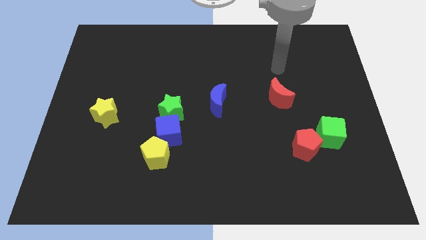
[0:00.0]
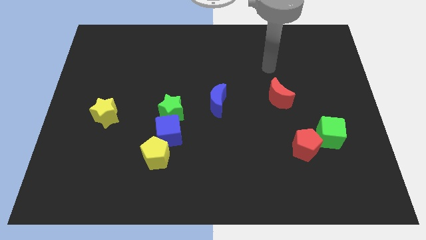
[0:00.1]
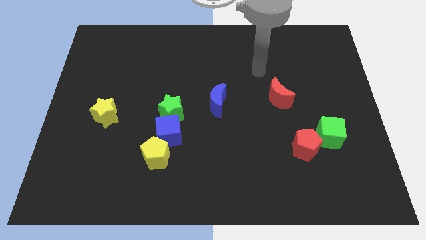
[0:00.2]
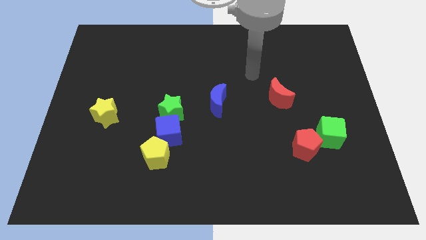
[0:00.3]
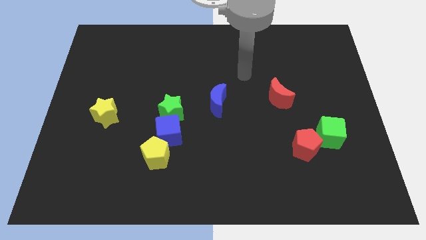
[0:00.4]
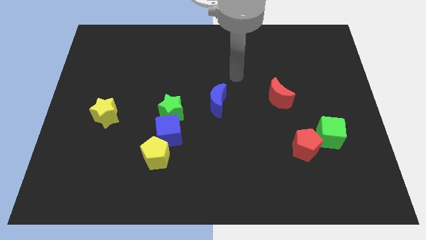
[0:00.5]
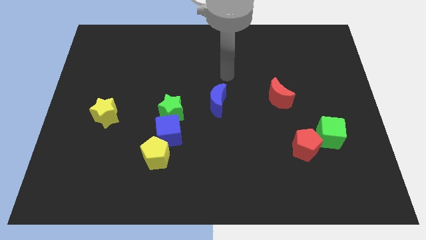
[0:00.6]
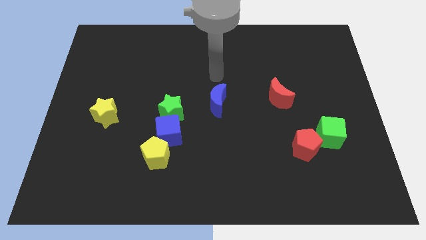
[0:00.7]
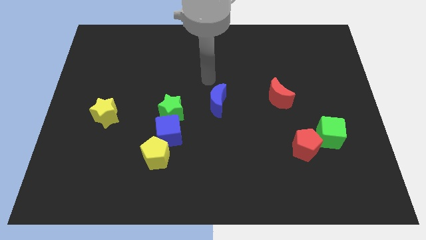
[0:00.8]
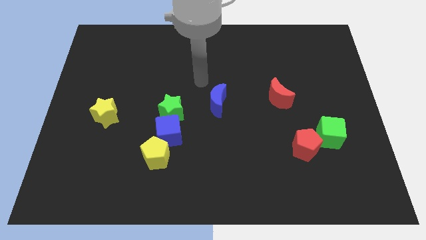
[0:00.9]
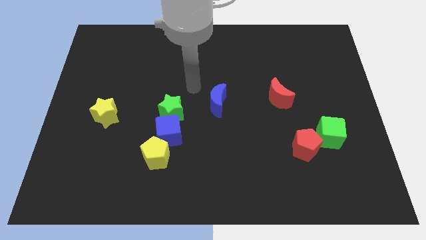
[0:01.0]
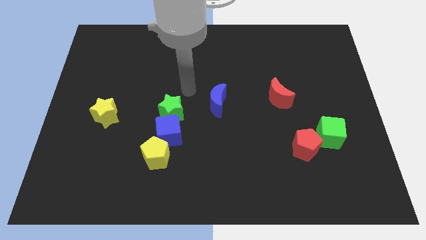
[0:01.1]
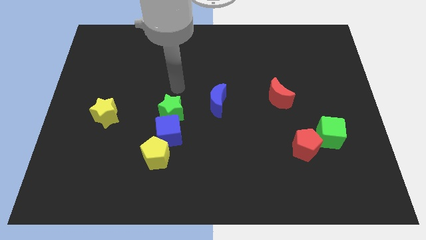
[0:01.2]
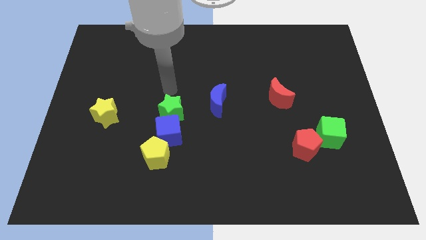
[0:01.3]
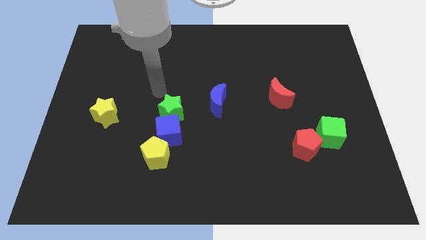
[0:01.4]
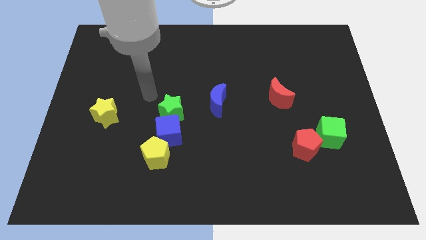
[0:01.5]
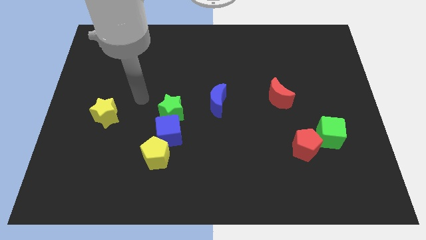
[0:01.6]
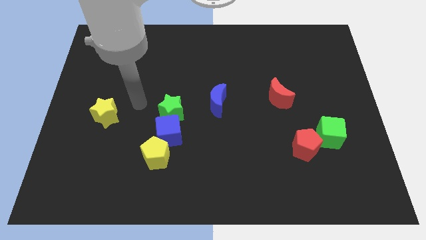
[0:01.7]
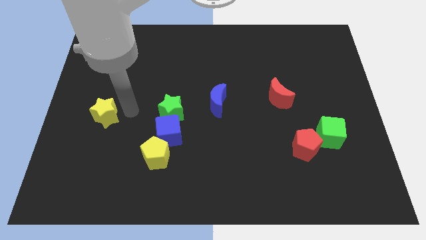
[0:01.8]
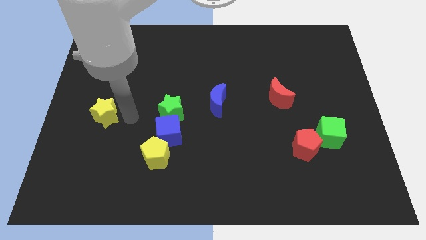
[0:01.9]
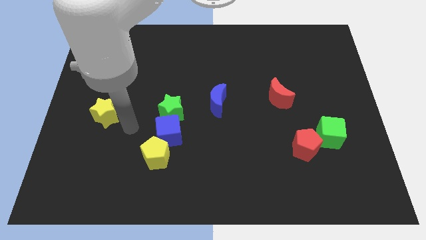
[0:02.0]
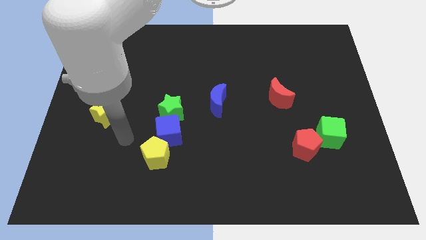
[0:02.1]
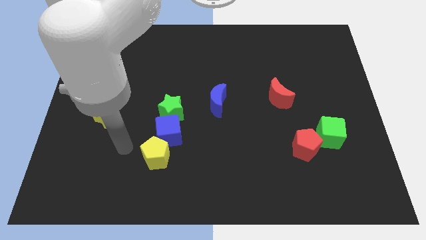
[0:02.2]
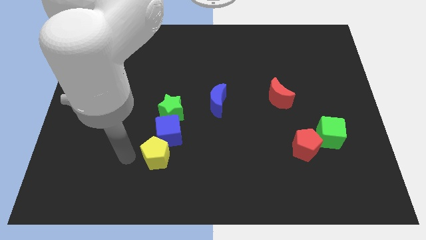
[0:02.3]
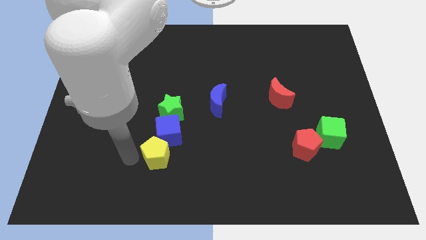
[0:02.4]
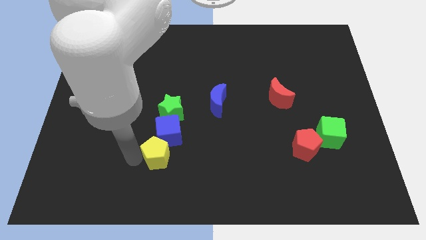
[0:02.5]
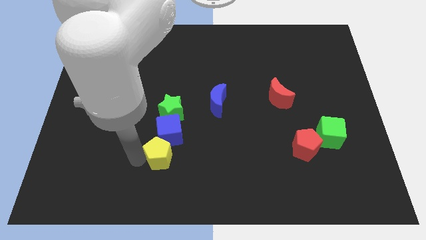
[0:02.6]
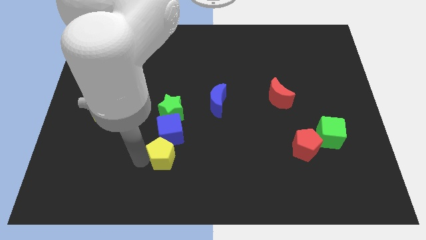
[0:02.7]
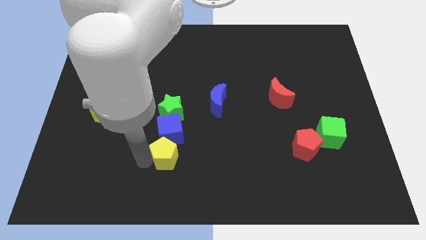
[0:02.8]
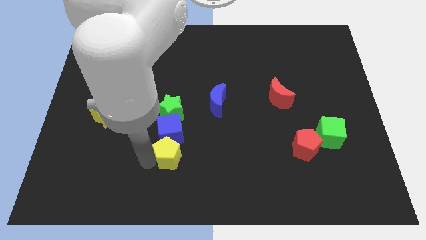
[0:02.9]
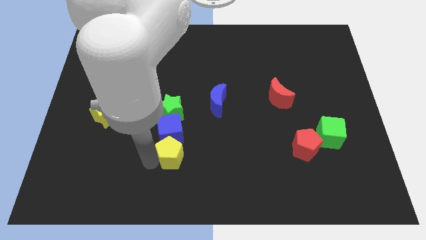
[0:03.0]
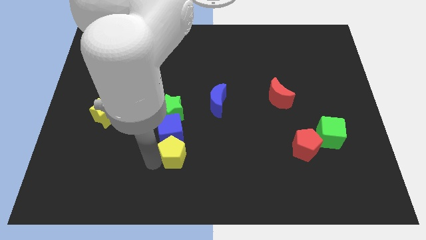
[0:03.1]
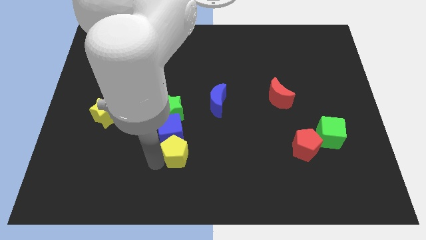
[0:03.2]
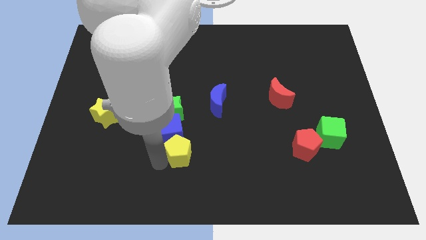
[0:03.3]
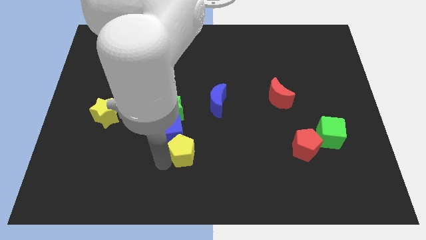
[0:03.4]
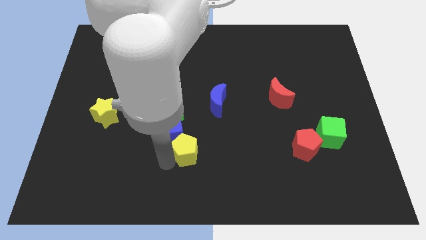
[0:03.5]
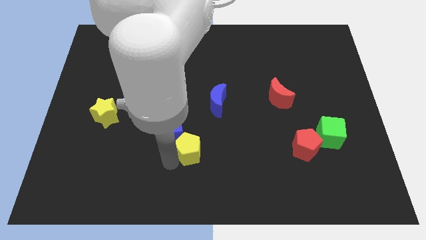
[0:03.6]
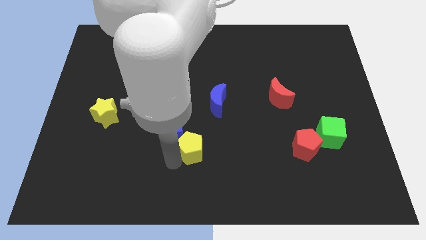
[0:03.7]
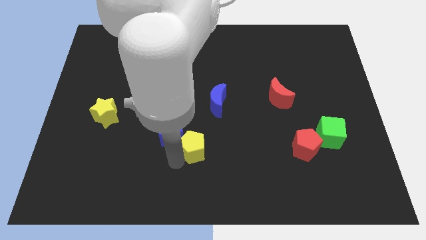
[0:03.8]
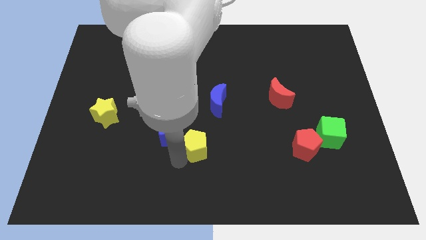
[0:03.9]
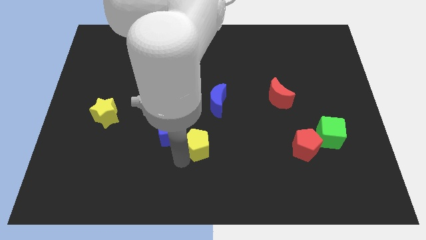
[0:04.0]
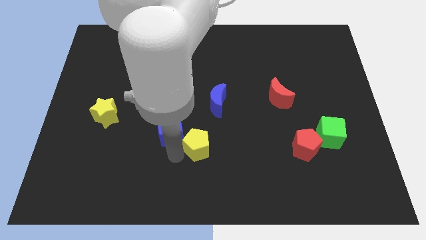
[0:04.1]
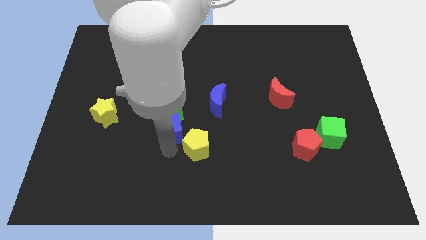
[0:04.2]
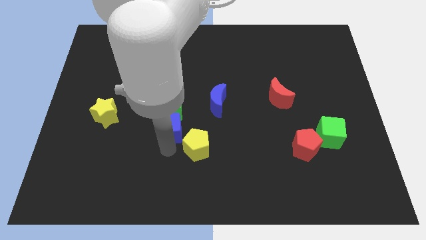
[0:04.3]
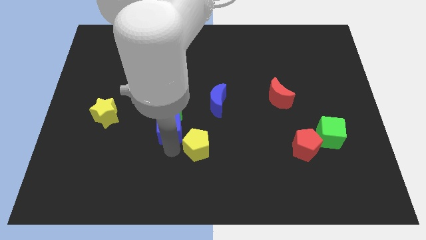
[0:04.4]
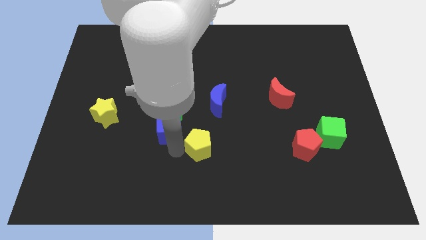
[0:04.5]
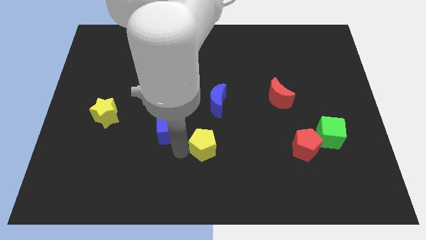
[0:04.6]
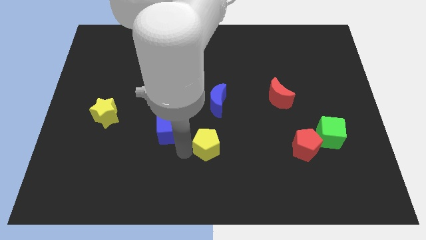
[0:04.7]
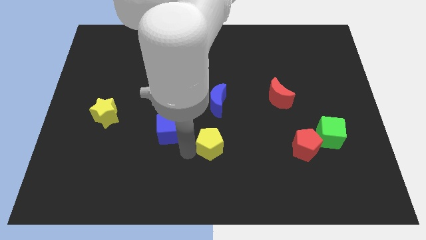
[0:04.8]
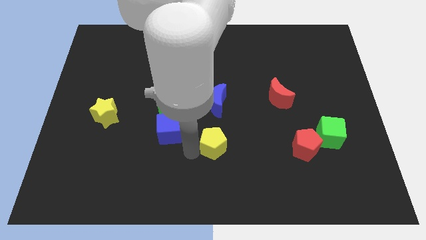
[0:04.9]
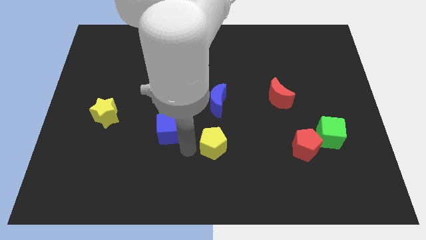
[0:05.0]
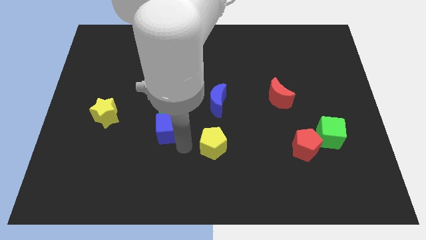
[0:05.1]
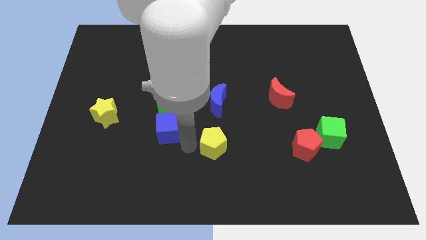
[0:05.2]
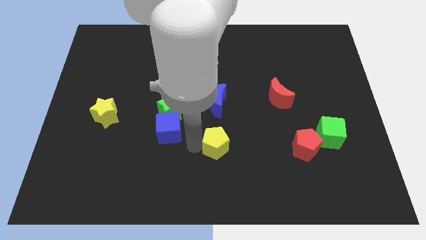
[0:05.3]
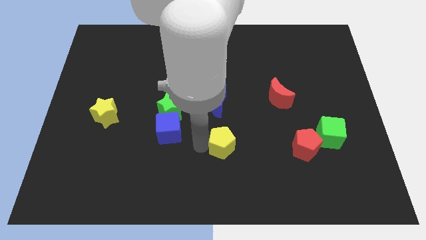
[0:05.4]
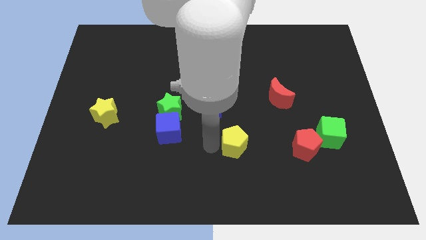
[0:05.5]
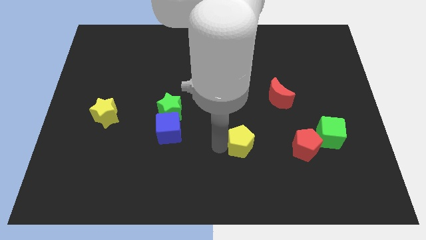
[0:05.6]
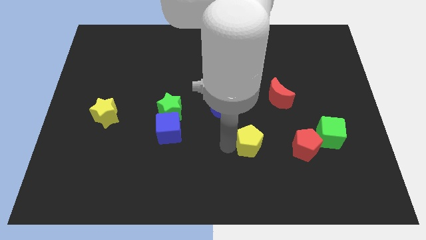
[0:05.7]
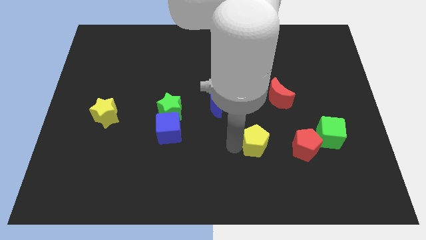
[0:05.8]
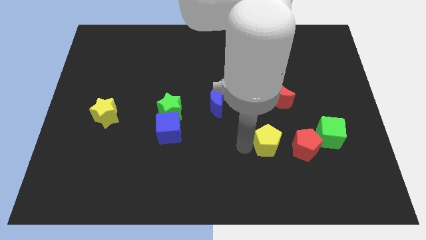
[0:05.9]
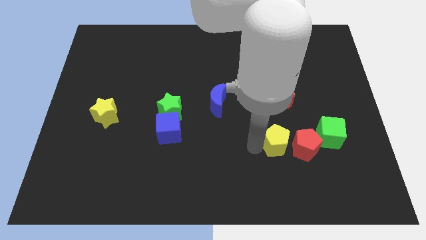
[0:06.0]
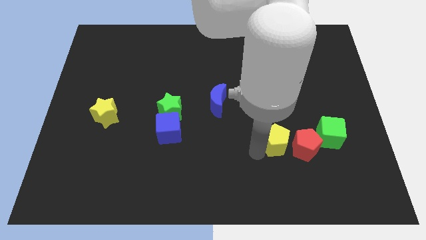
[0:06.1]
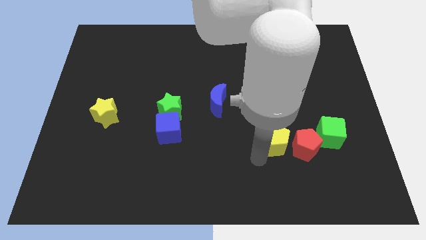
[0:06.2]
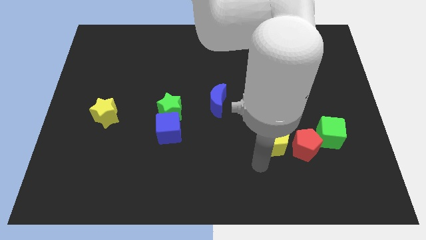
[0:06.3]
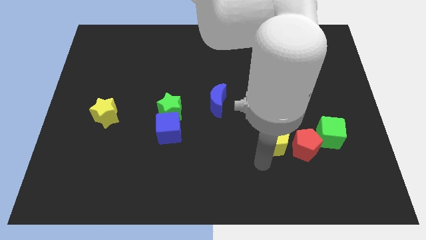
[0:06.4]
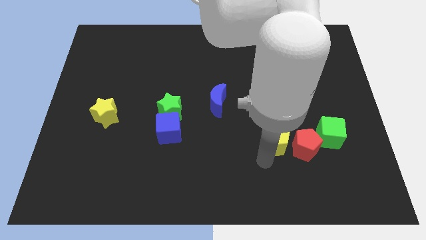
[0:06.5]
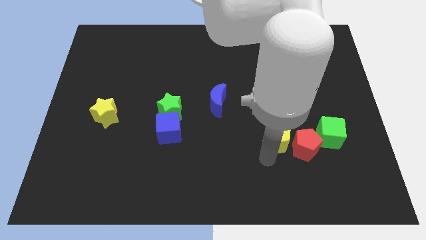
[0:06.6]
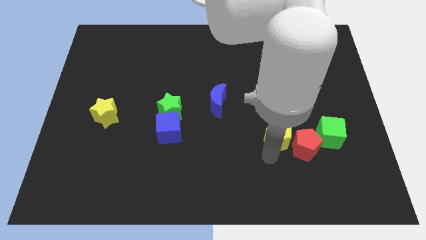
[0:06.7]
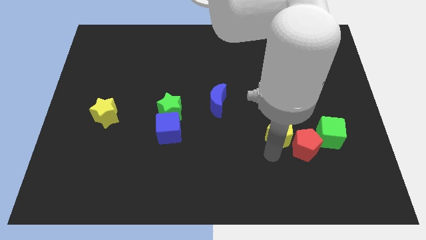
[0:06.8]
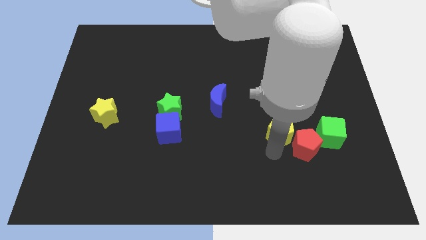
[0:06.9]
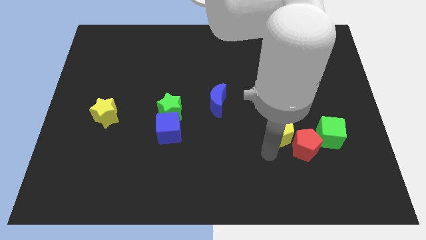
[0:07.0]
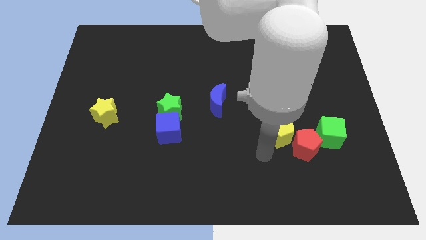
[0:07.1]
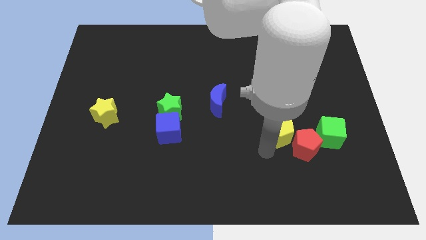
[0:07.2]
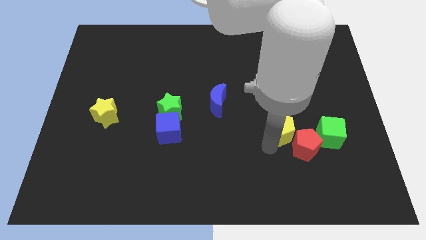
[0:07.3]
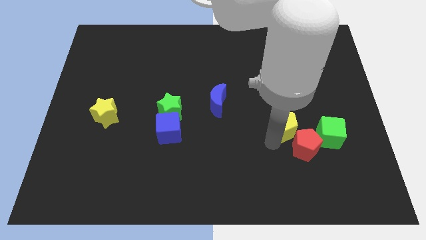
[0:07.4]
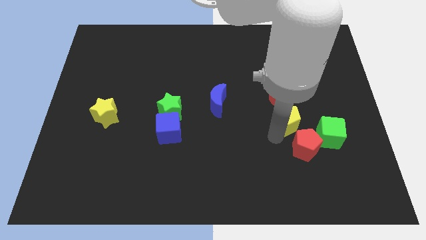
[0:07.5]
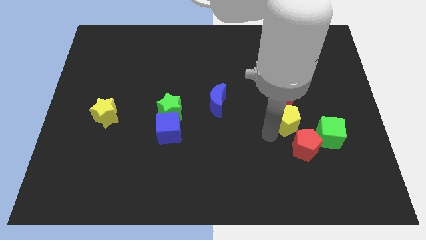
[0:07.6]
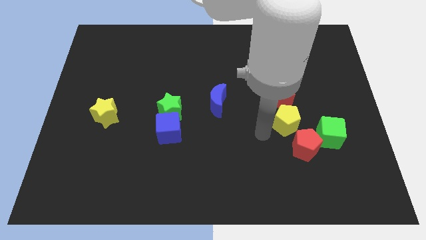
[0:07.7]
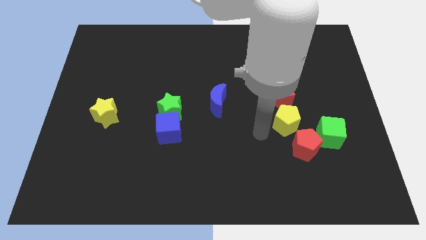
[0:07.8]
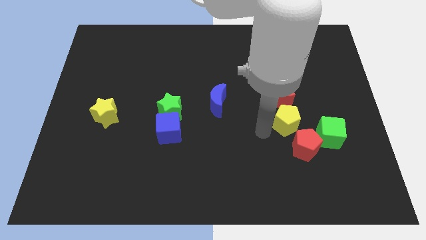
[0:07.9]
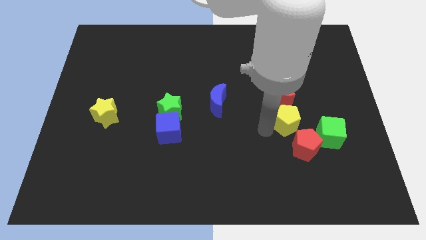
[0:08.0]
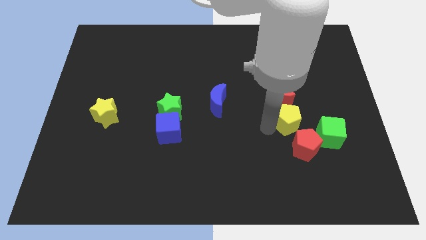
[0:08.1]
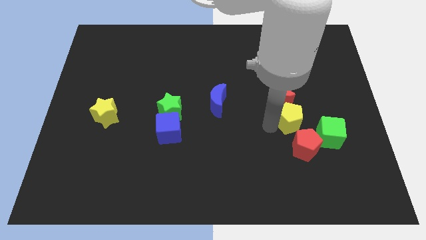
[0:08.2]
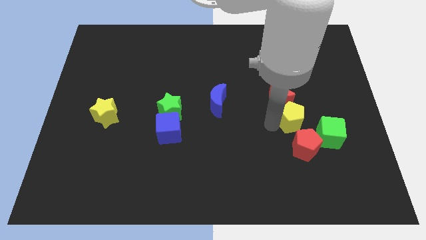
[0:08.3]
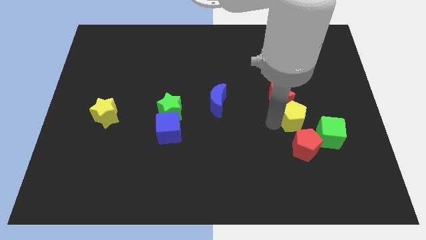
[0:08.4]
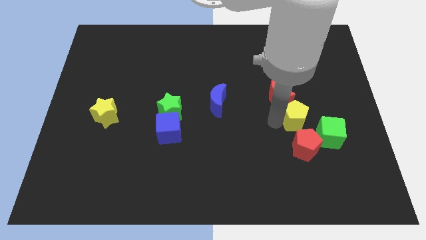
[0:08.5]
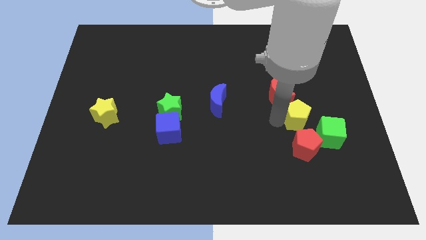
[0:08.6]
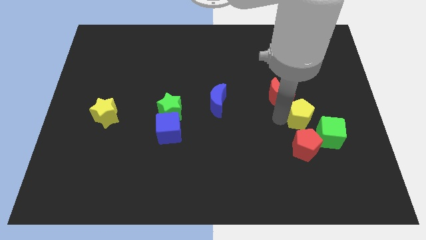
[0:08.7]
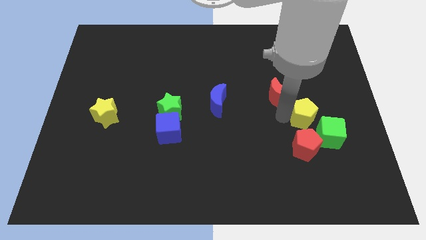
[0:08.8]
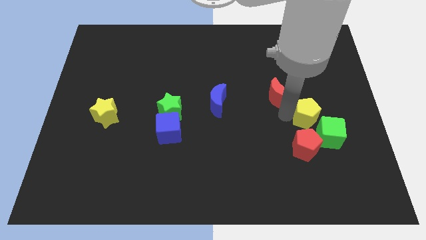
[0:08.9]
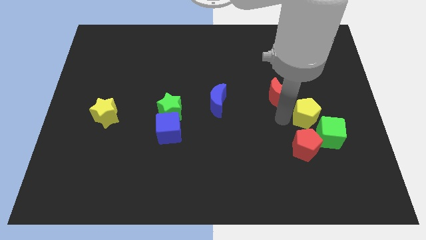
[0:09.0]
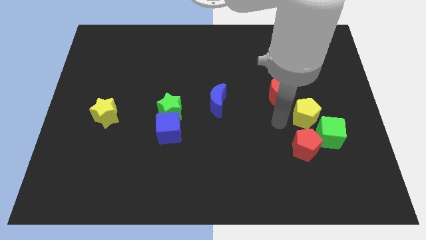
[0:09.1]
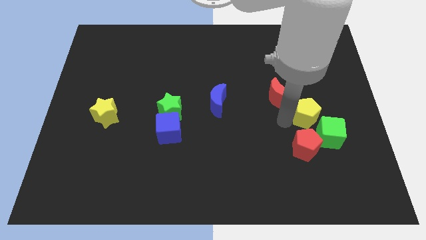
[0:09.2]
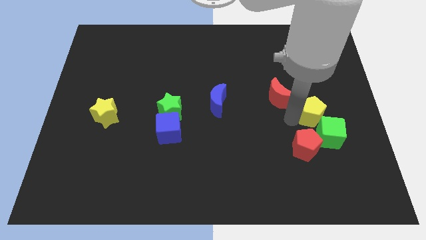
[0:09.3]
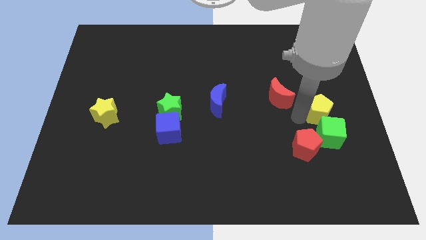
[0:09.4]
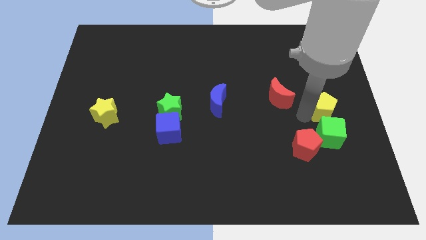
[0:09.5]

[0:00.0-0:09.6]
push the yellow pentagon to the right side of the board
